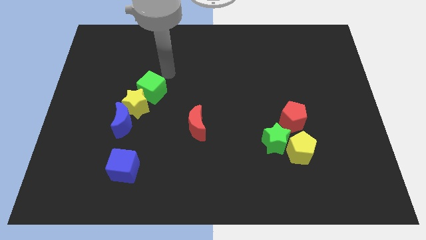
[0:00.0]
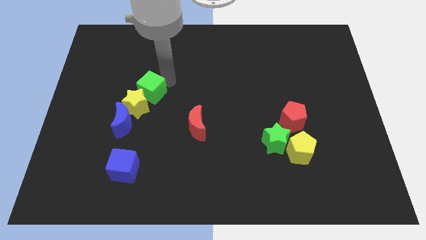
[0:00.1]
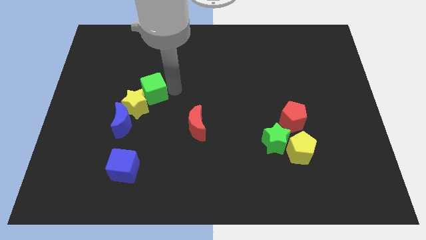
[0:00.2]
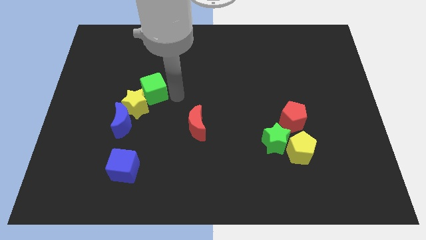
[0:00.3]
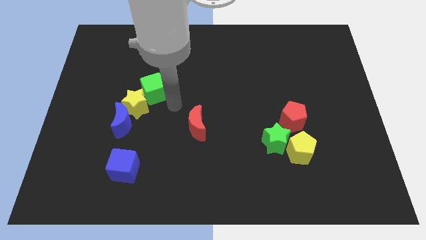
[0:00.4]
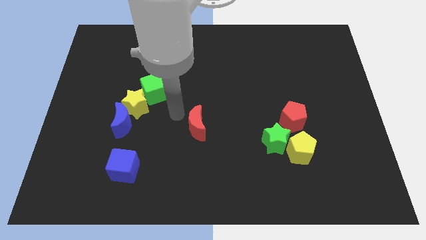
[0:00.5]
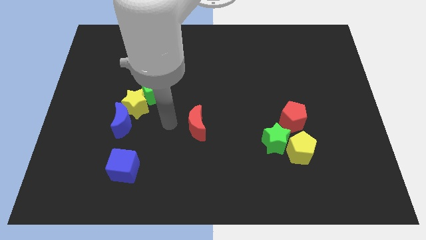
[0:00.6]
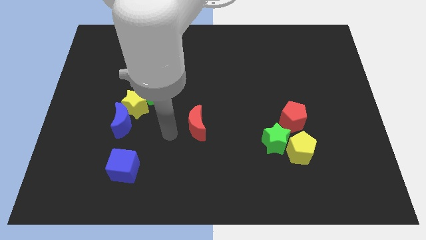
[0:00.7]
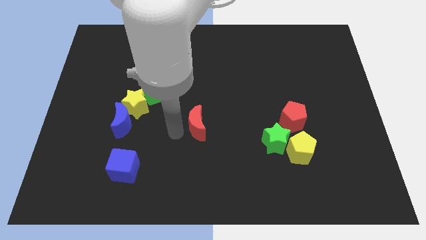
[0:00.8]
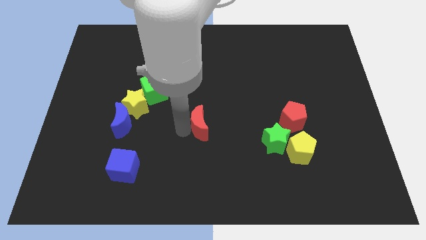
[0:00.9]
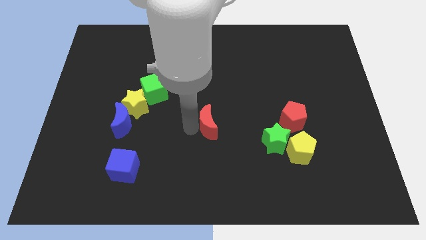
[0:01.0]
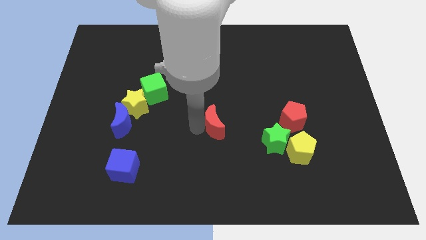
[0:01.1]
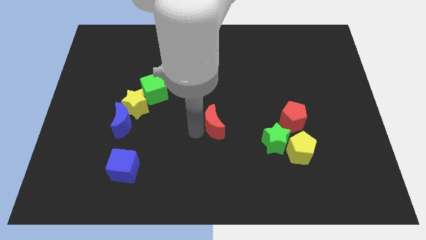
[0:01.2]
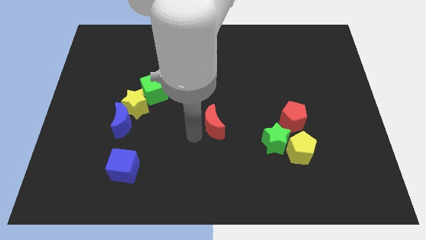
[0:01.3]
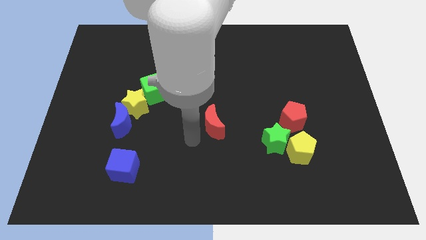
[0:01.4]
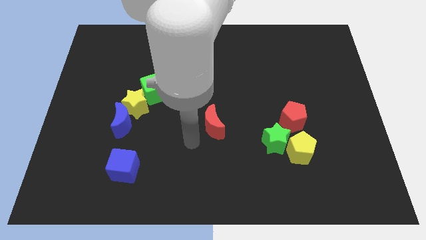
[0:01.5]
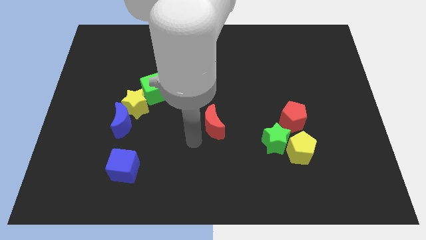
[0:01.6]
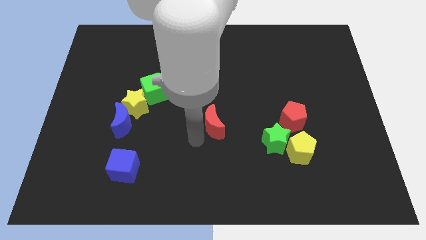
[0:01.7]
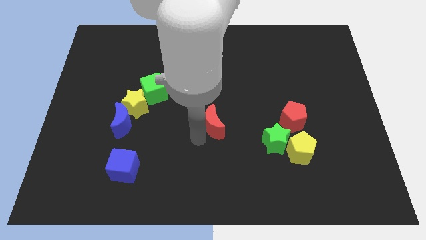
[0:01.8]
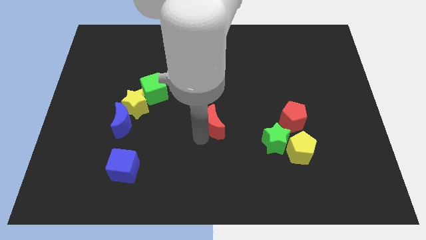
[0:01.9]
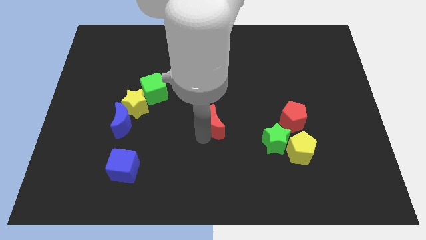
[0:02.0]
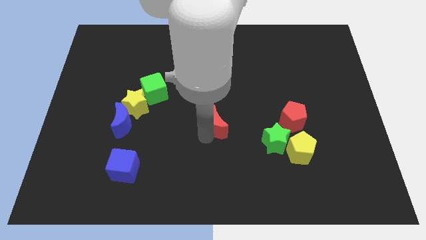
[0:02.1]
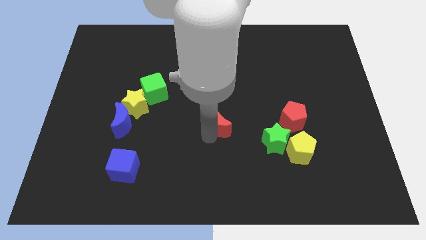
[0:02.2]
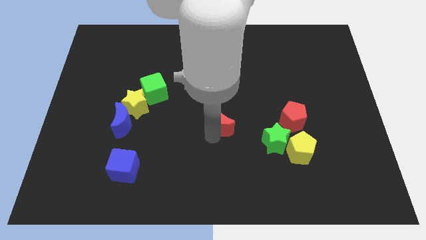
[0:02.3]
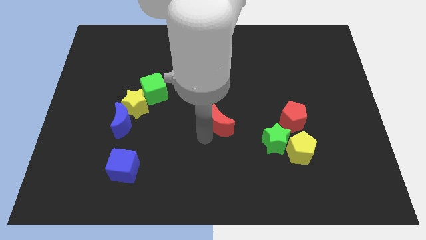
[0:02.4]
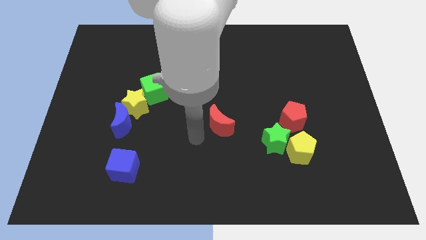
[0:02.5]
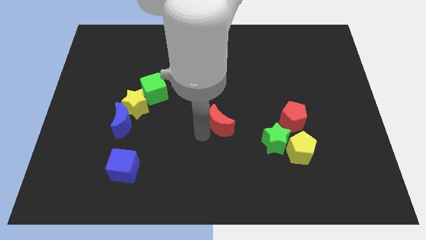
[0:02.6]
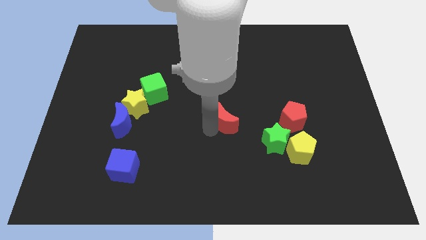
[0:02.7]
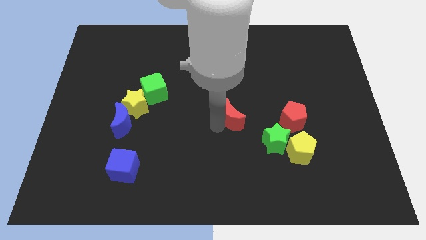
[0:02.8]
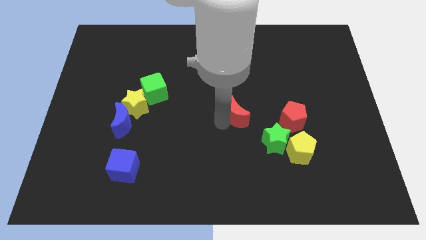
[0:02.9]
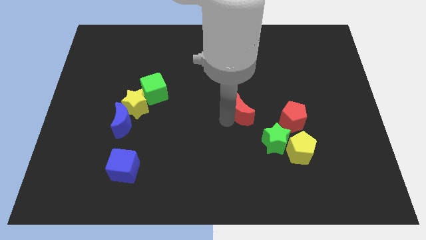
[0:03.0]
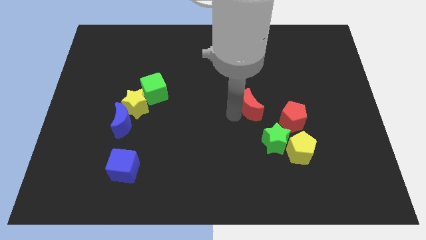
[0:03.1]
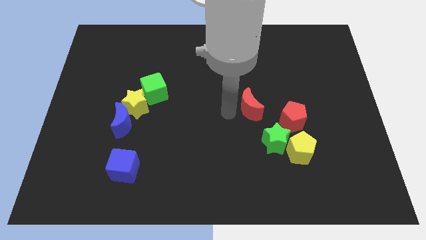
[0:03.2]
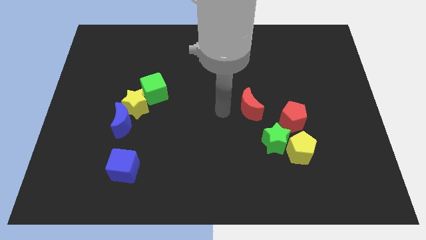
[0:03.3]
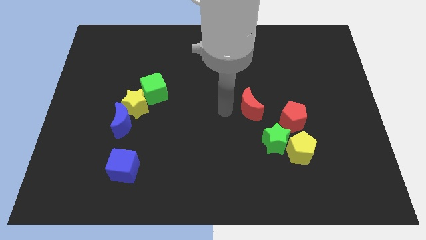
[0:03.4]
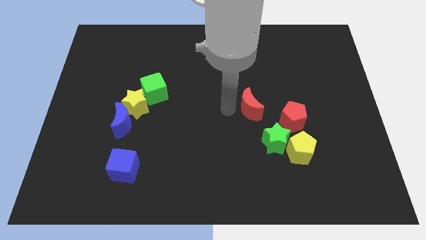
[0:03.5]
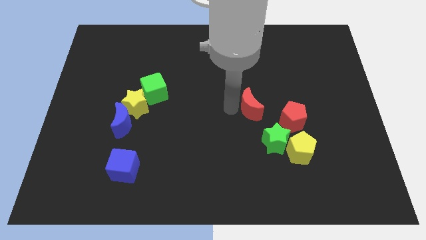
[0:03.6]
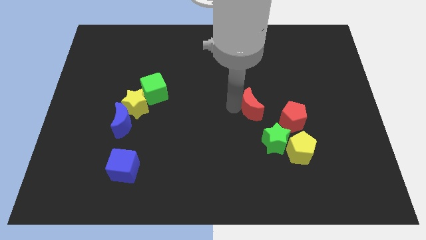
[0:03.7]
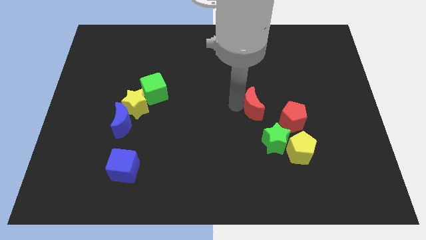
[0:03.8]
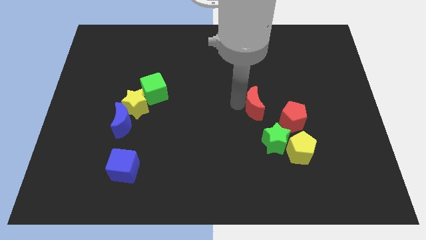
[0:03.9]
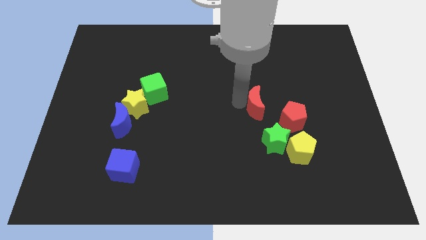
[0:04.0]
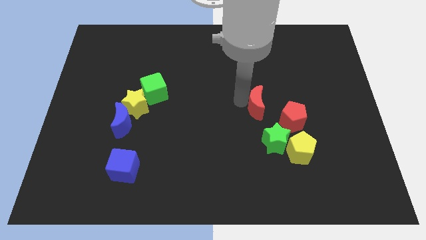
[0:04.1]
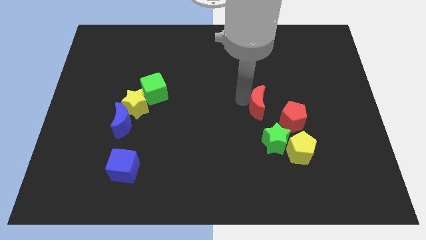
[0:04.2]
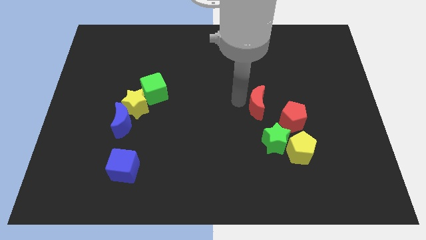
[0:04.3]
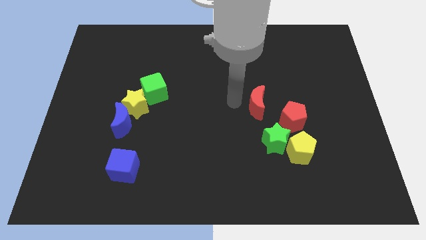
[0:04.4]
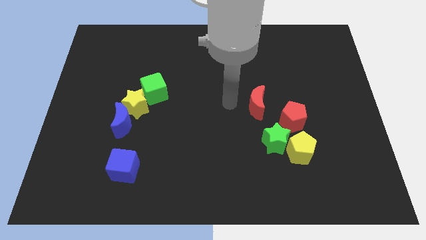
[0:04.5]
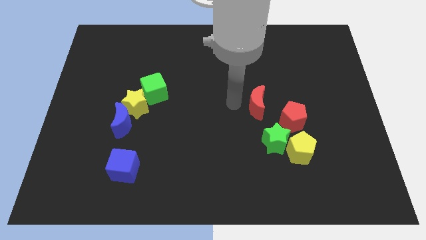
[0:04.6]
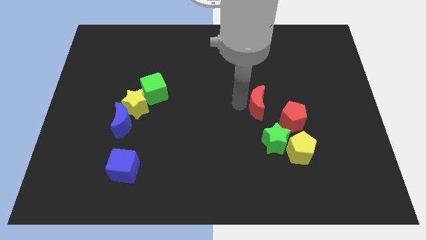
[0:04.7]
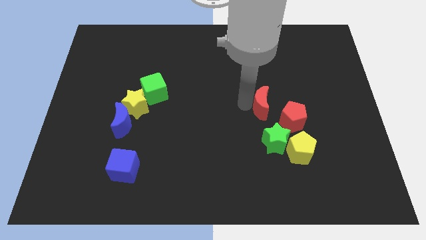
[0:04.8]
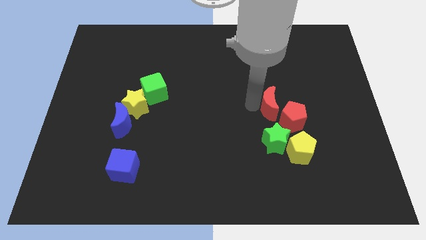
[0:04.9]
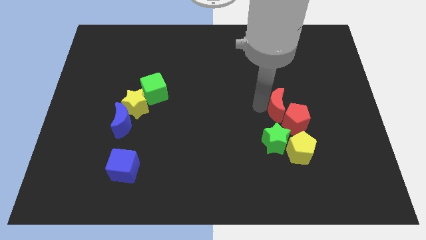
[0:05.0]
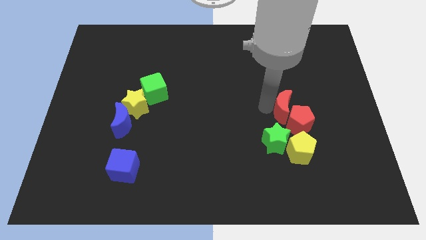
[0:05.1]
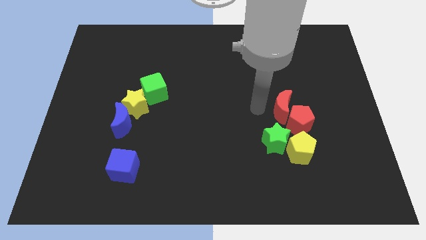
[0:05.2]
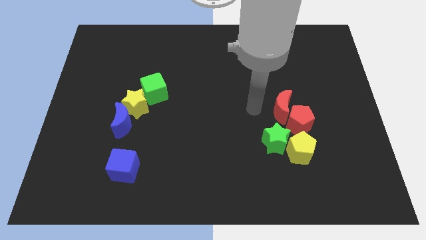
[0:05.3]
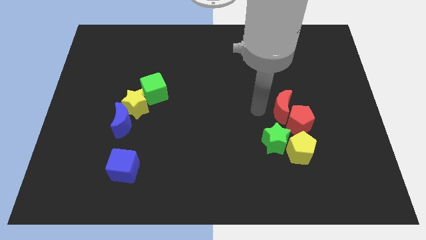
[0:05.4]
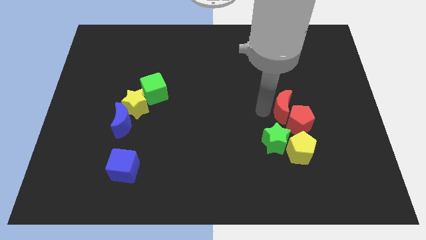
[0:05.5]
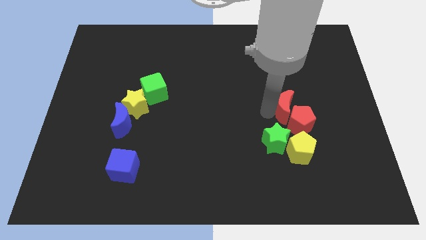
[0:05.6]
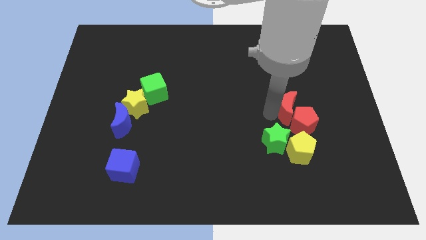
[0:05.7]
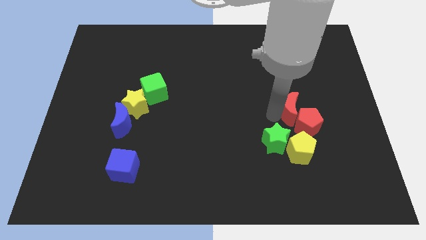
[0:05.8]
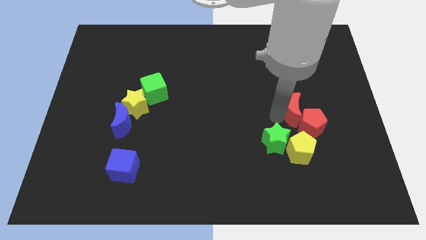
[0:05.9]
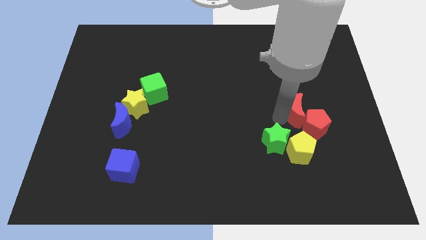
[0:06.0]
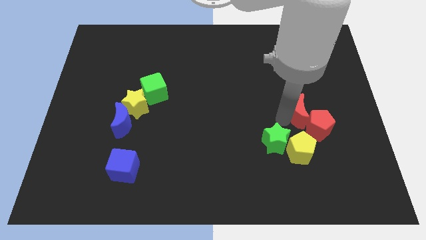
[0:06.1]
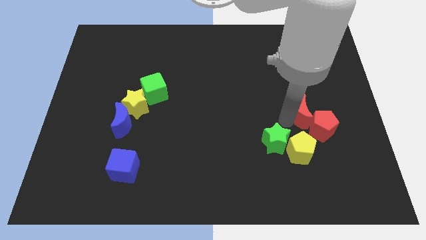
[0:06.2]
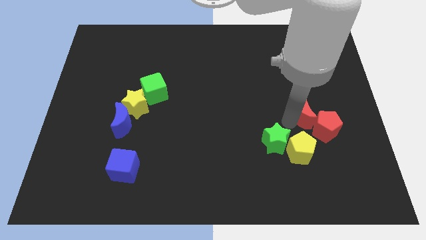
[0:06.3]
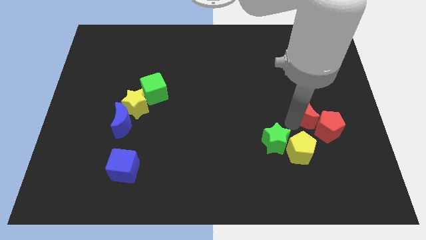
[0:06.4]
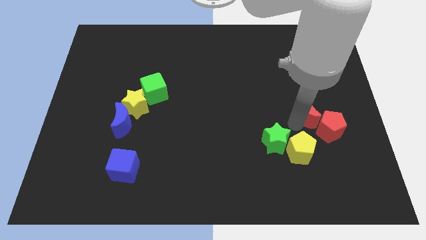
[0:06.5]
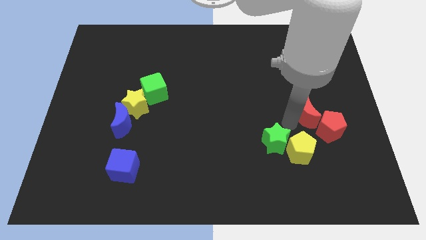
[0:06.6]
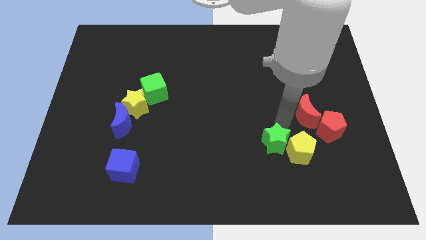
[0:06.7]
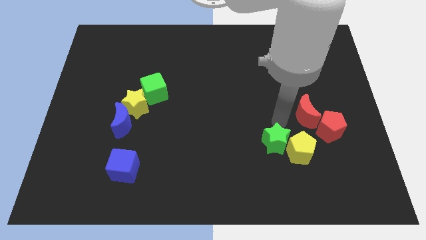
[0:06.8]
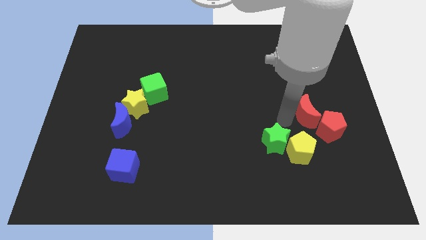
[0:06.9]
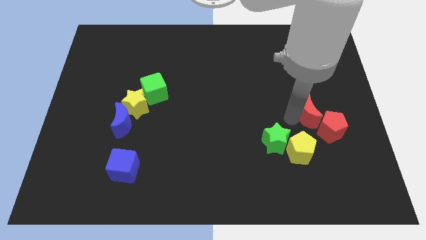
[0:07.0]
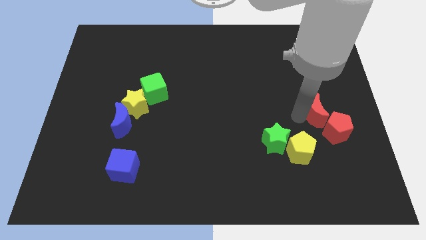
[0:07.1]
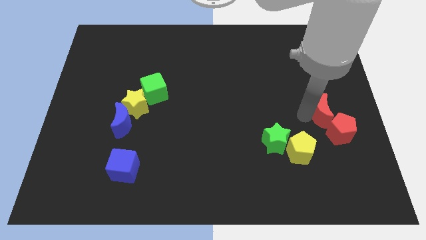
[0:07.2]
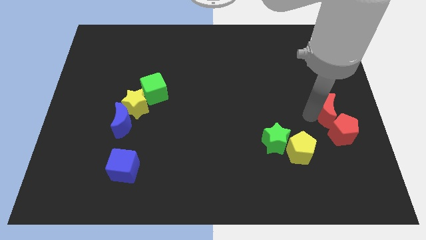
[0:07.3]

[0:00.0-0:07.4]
slide the red moon to the right side
